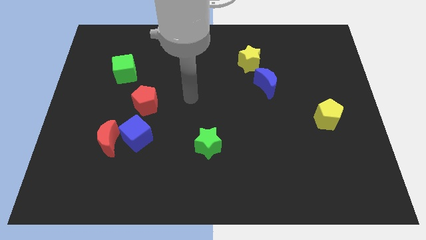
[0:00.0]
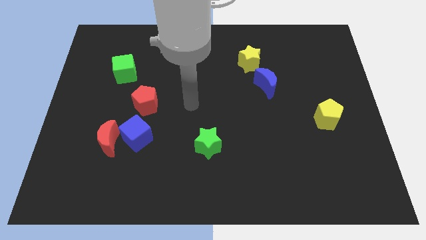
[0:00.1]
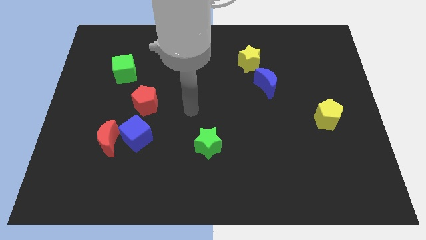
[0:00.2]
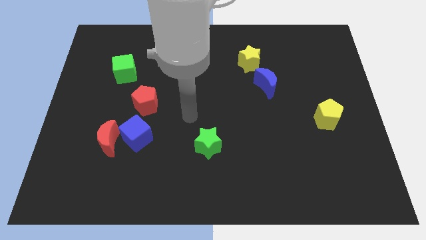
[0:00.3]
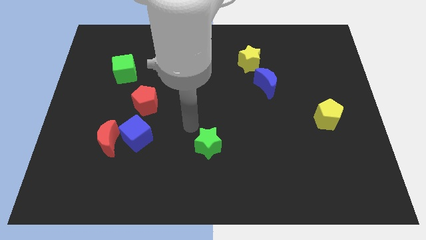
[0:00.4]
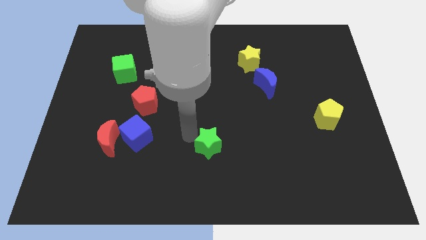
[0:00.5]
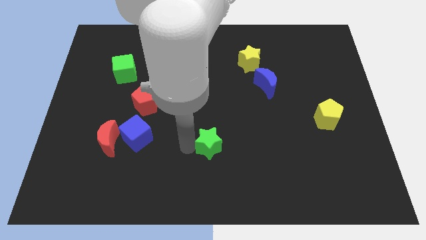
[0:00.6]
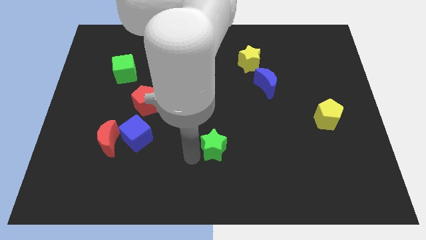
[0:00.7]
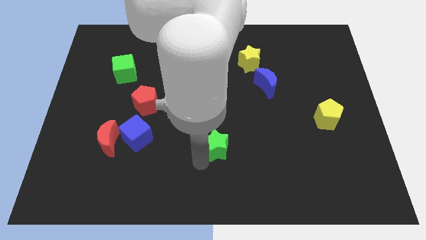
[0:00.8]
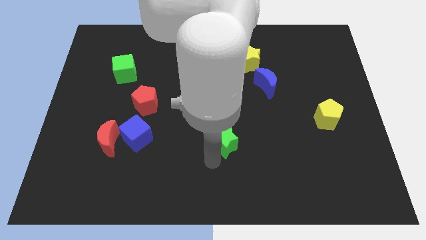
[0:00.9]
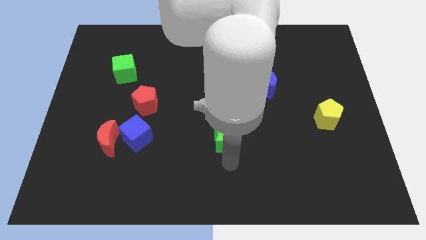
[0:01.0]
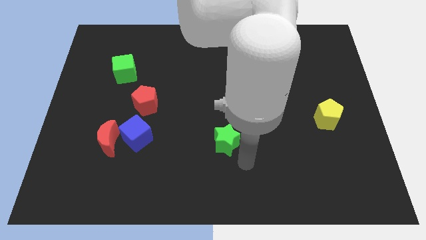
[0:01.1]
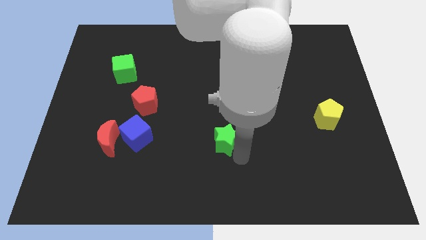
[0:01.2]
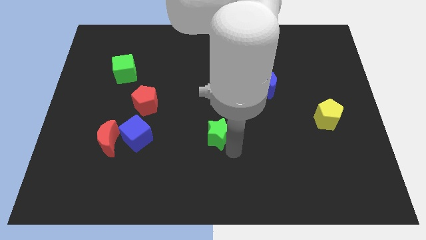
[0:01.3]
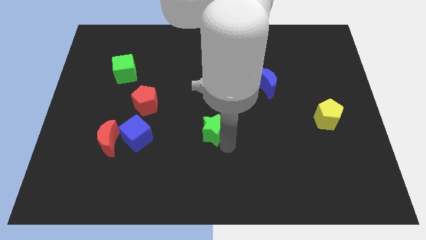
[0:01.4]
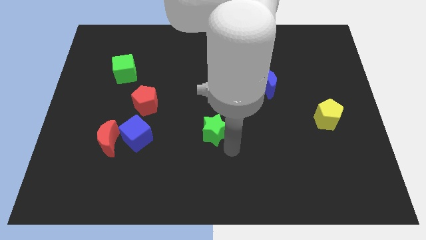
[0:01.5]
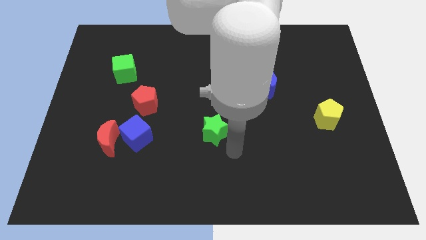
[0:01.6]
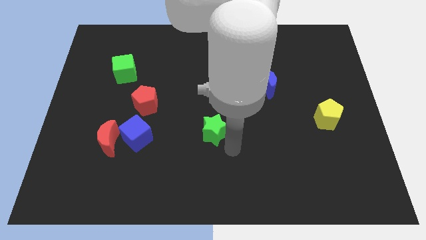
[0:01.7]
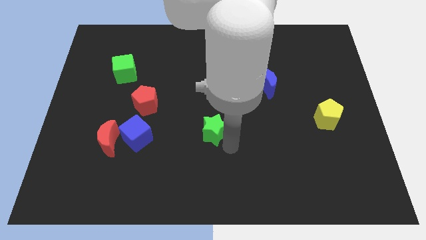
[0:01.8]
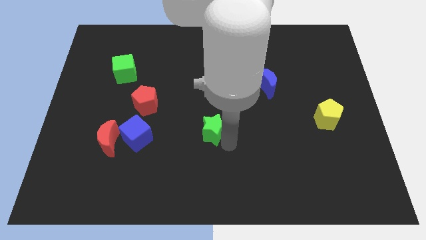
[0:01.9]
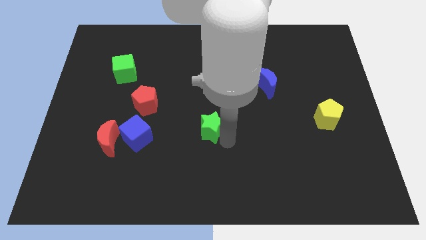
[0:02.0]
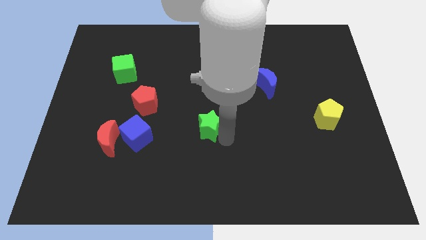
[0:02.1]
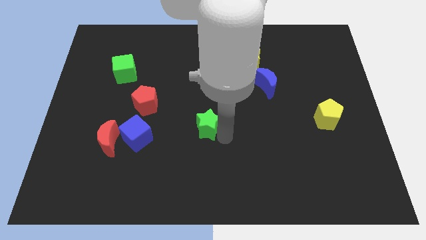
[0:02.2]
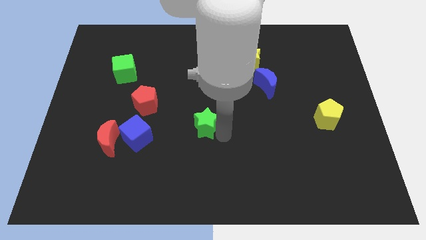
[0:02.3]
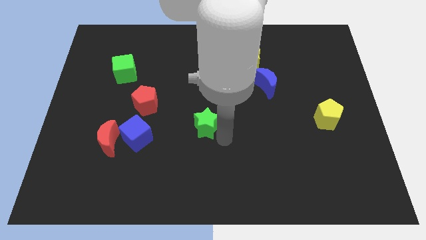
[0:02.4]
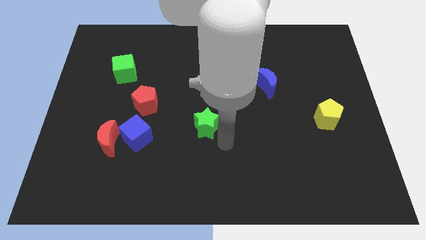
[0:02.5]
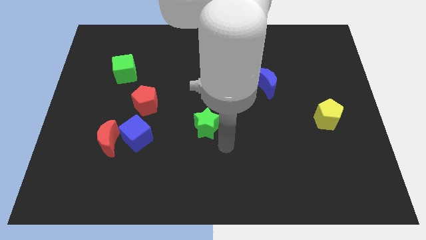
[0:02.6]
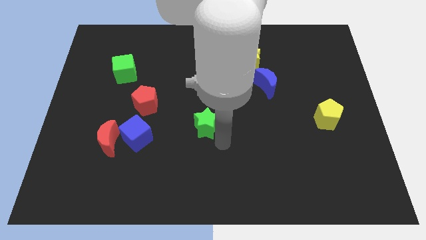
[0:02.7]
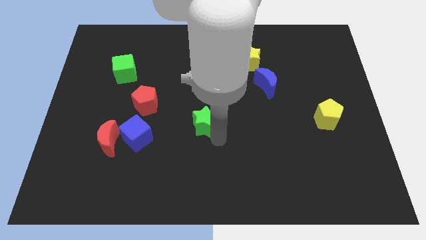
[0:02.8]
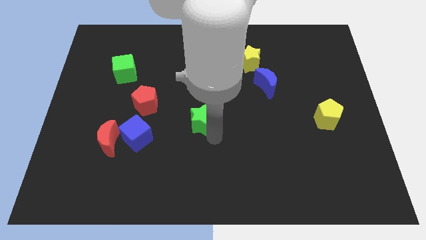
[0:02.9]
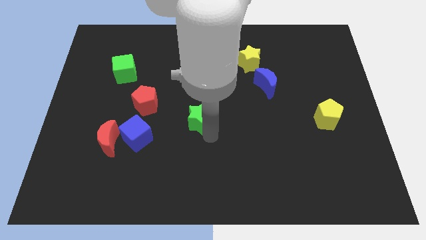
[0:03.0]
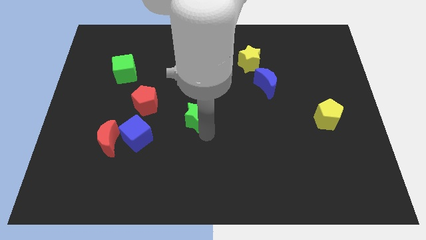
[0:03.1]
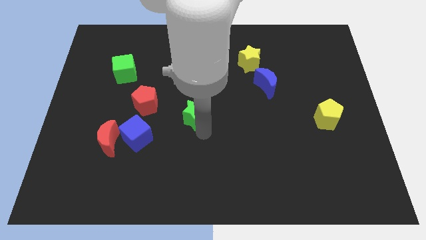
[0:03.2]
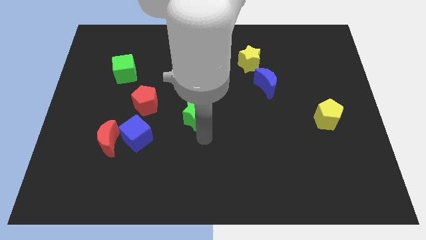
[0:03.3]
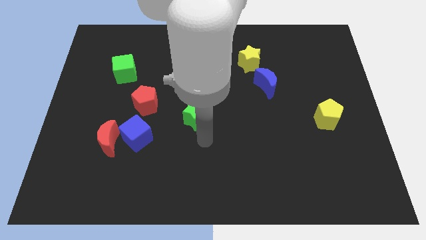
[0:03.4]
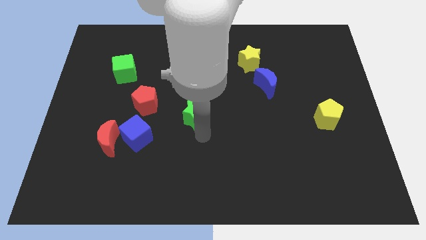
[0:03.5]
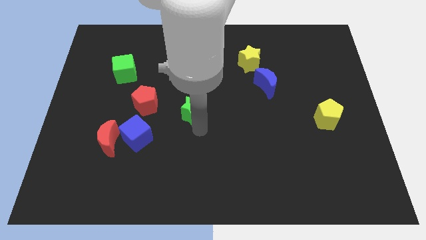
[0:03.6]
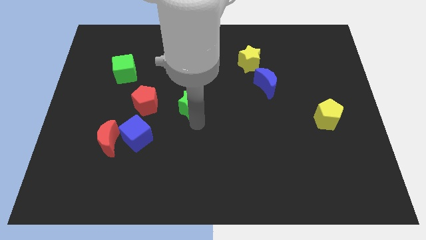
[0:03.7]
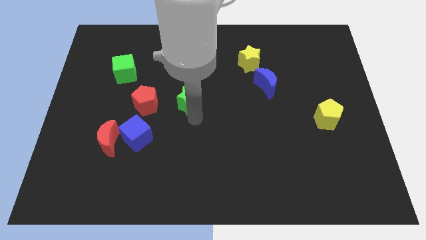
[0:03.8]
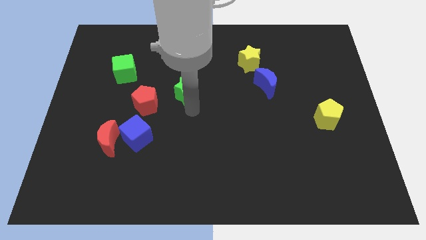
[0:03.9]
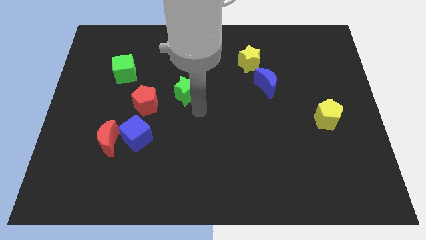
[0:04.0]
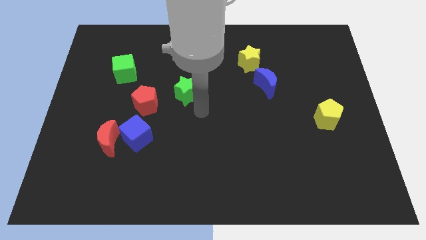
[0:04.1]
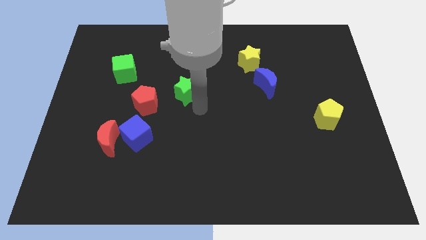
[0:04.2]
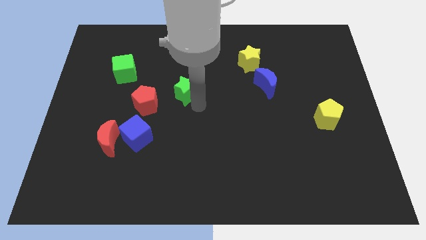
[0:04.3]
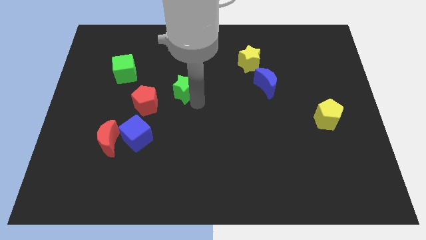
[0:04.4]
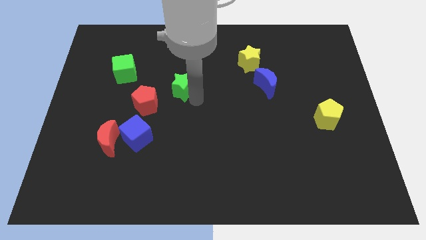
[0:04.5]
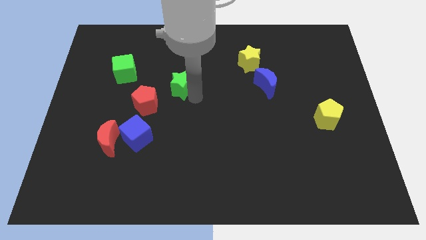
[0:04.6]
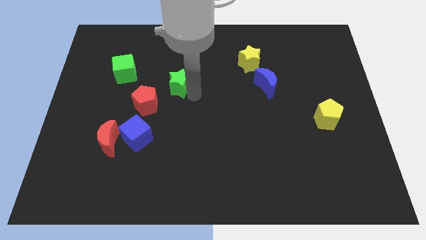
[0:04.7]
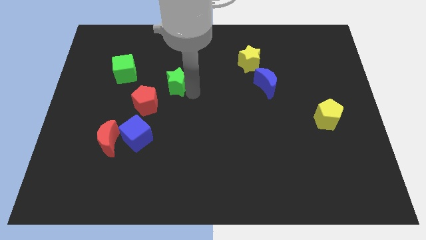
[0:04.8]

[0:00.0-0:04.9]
put the green star to the right side of the green cube
